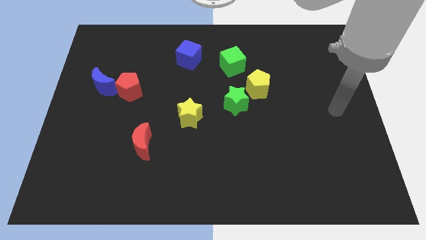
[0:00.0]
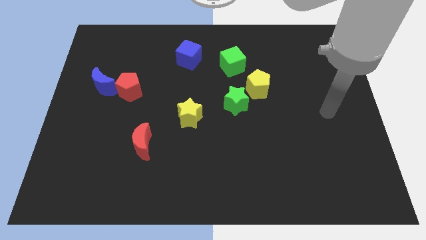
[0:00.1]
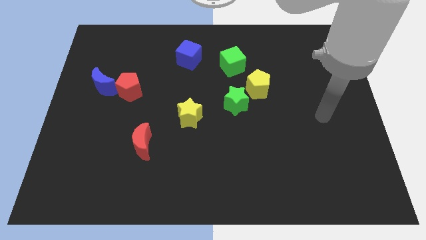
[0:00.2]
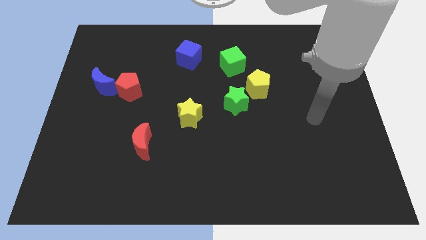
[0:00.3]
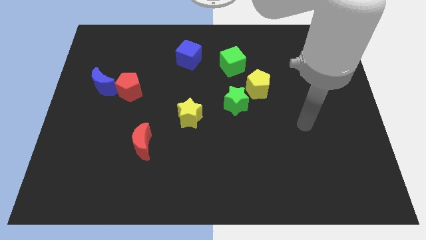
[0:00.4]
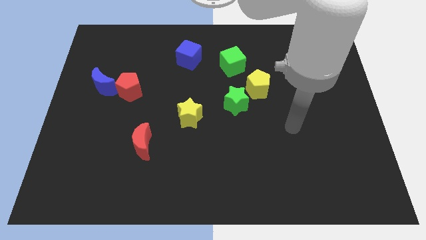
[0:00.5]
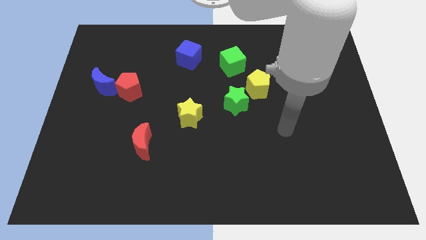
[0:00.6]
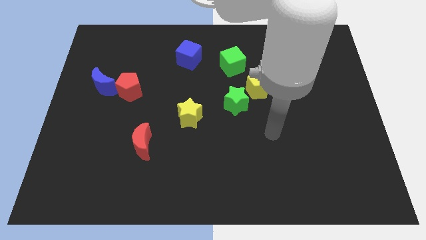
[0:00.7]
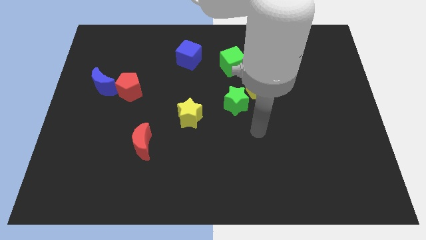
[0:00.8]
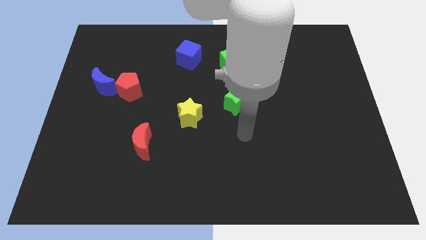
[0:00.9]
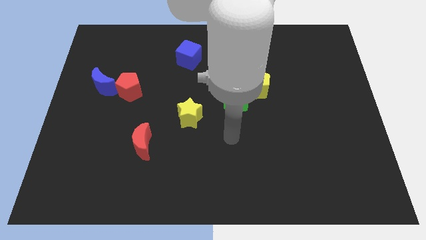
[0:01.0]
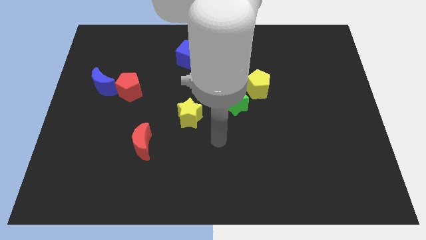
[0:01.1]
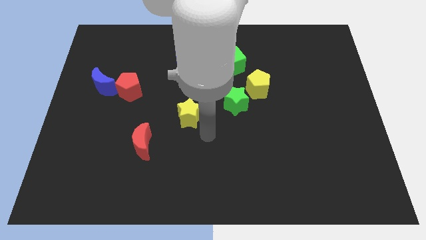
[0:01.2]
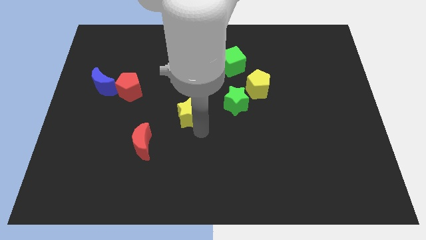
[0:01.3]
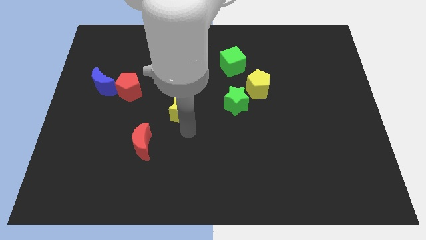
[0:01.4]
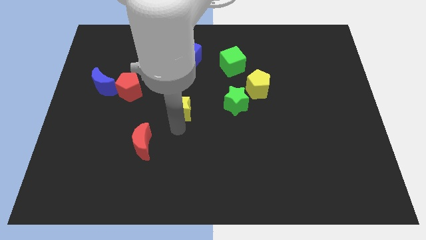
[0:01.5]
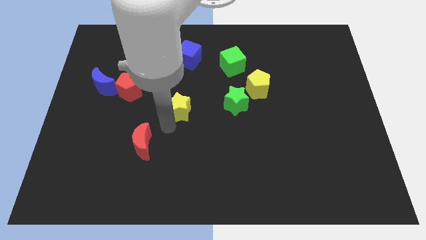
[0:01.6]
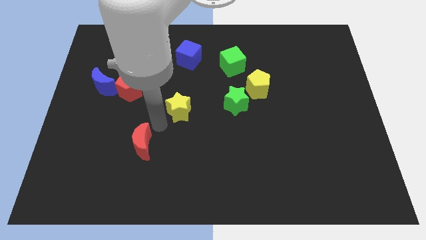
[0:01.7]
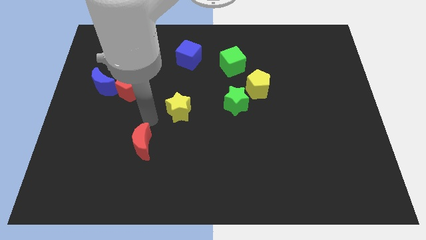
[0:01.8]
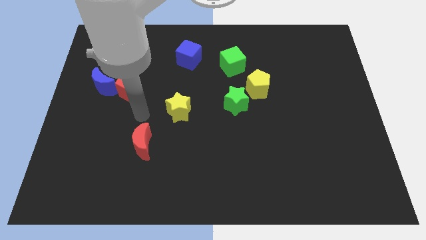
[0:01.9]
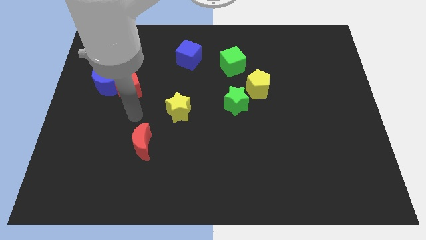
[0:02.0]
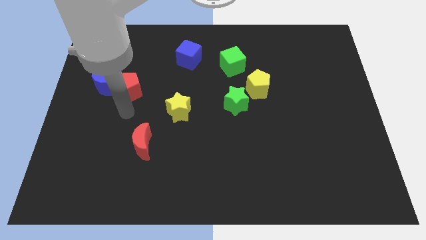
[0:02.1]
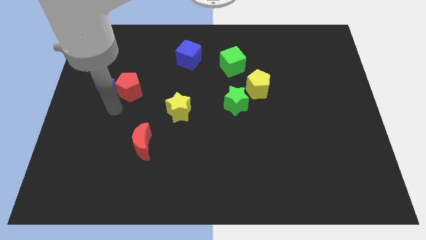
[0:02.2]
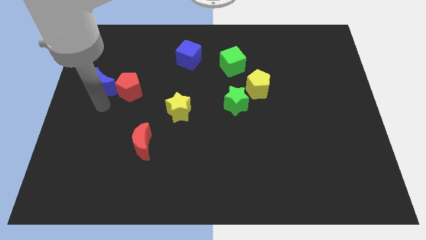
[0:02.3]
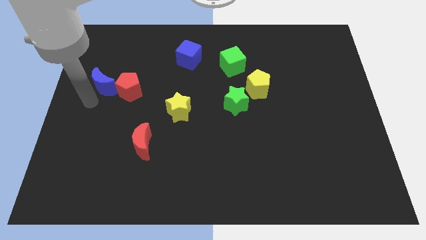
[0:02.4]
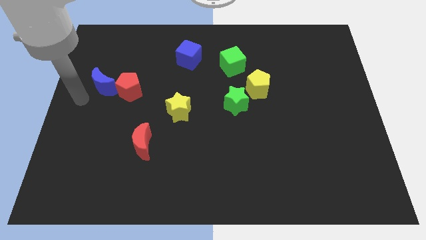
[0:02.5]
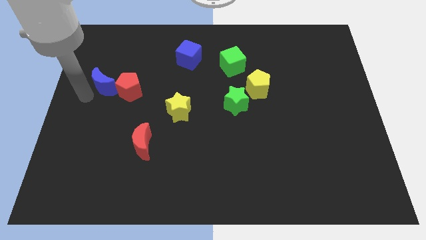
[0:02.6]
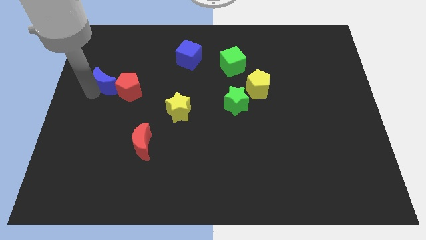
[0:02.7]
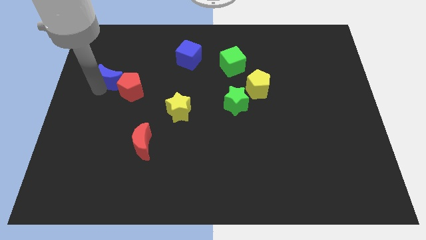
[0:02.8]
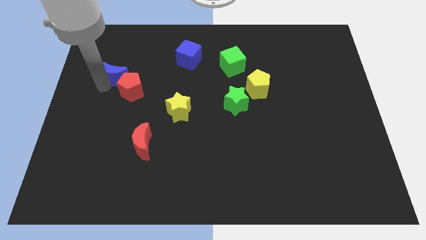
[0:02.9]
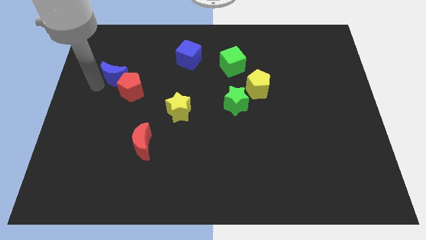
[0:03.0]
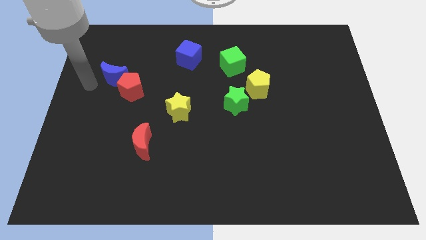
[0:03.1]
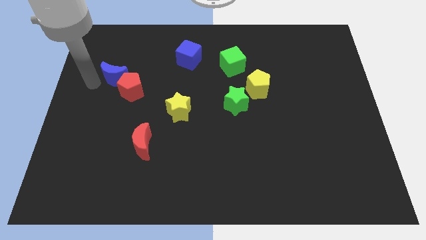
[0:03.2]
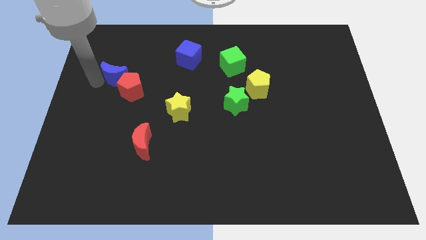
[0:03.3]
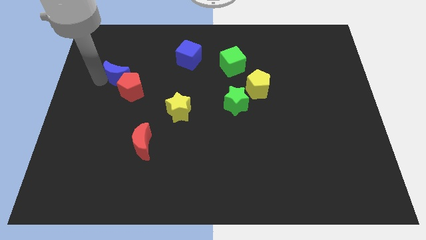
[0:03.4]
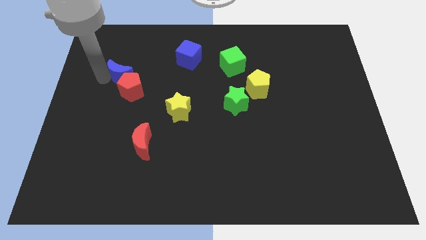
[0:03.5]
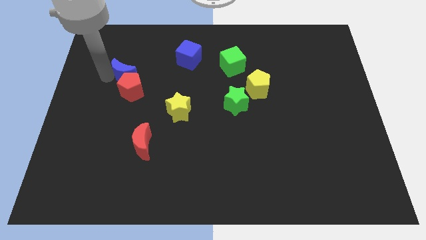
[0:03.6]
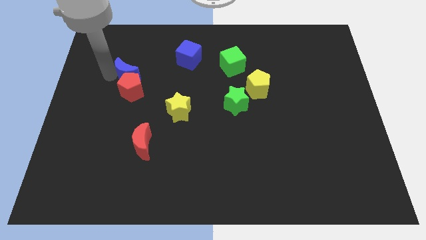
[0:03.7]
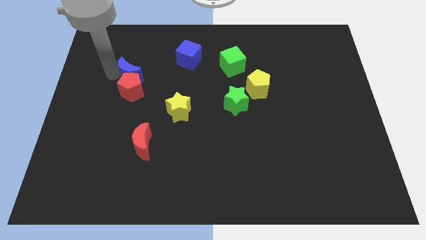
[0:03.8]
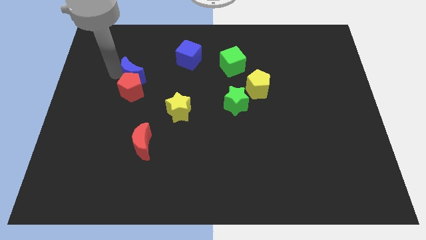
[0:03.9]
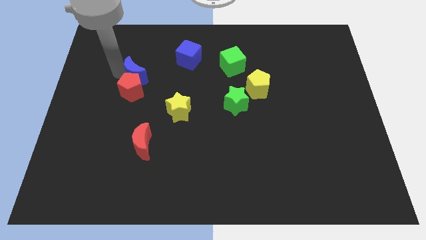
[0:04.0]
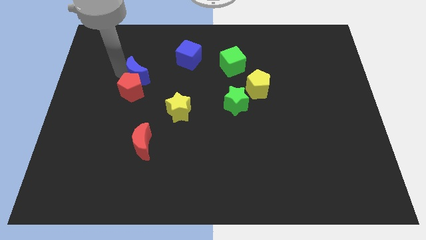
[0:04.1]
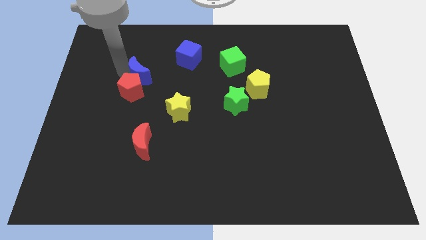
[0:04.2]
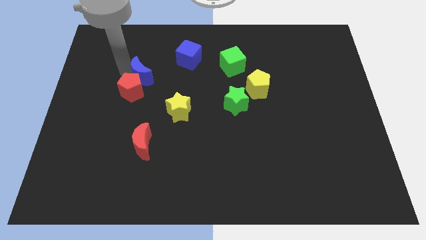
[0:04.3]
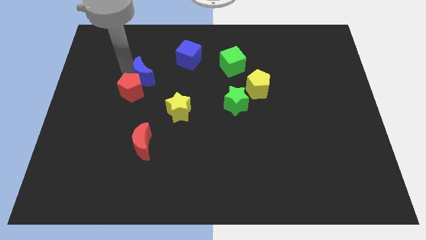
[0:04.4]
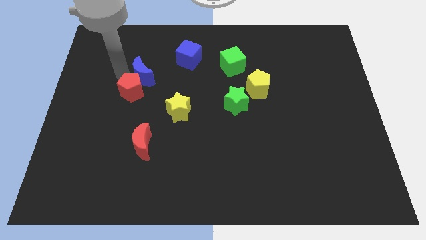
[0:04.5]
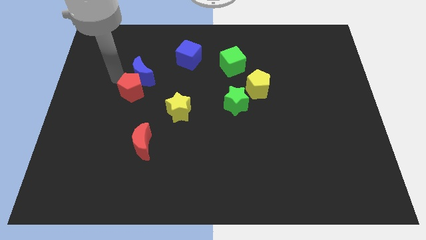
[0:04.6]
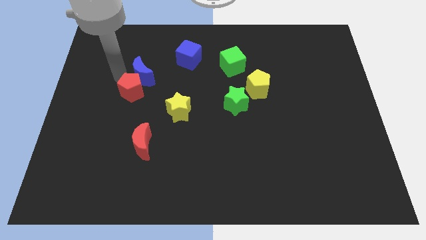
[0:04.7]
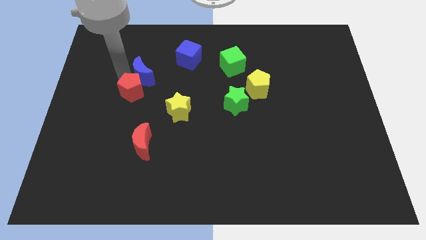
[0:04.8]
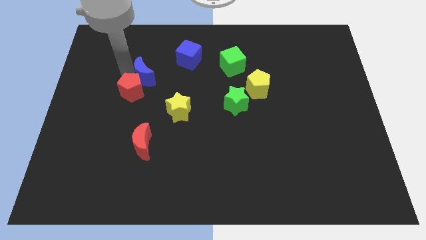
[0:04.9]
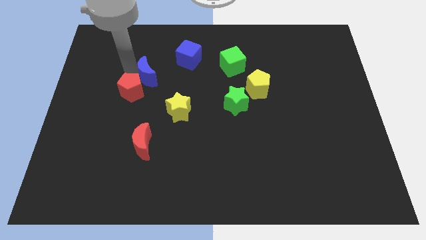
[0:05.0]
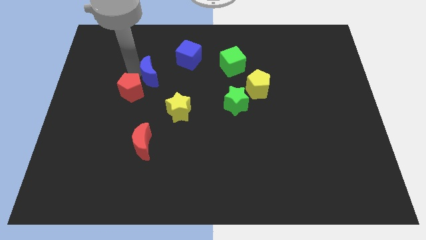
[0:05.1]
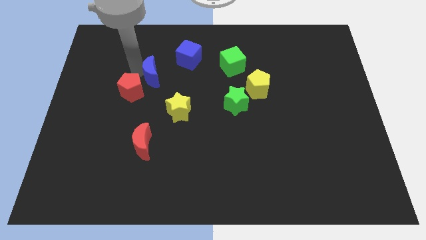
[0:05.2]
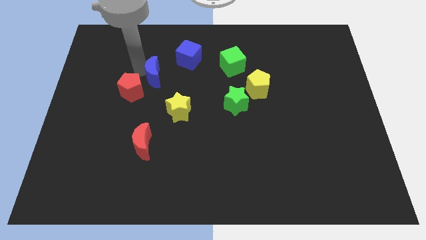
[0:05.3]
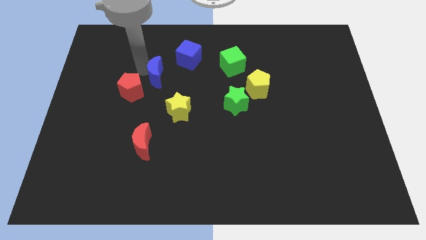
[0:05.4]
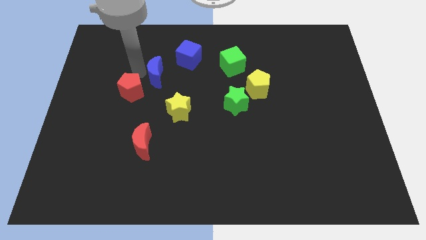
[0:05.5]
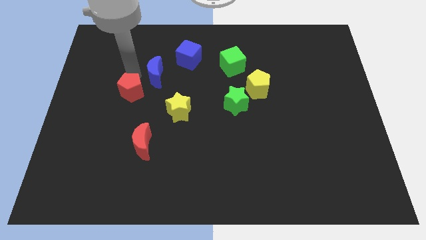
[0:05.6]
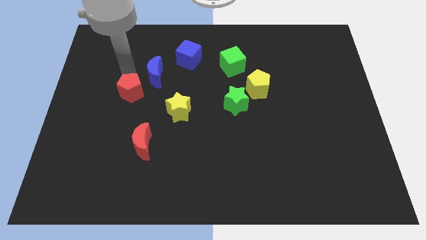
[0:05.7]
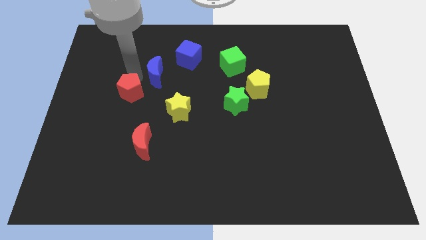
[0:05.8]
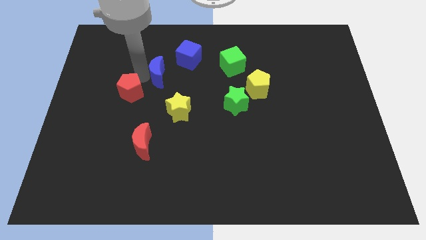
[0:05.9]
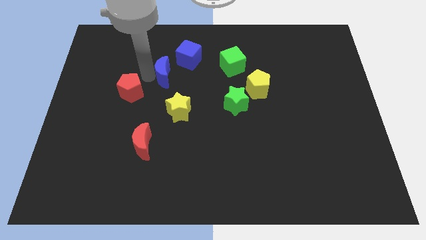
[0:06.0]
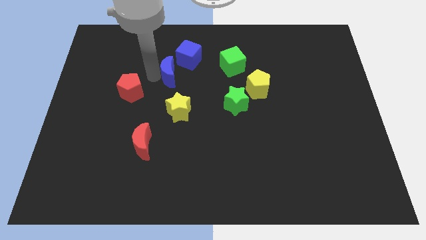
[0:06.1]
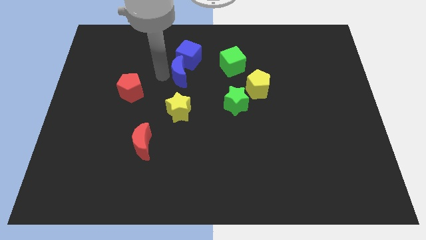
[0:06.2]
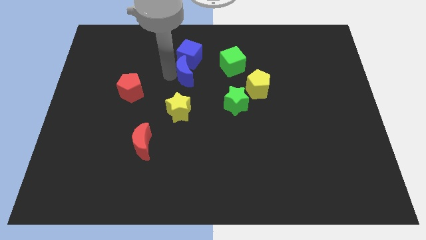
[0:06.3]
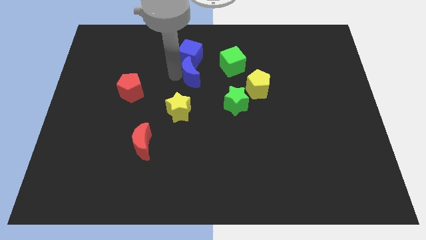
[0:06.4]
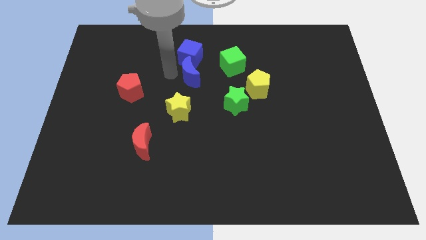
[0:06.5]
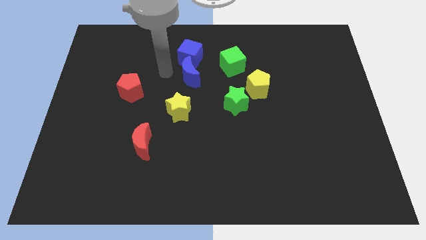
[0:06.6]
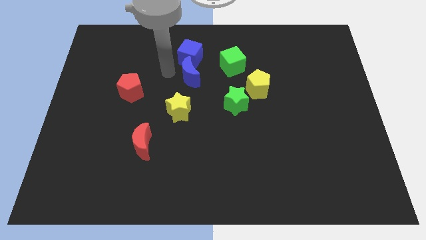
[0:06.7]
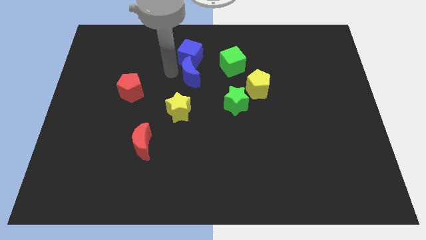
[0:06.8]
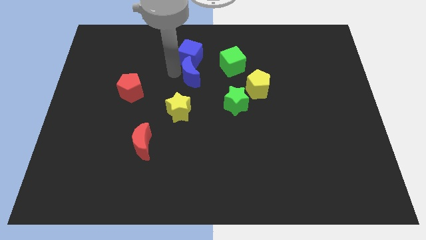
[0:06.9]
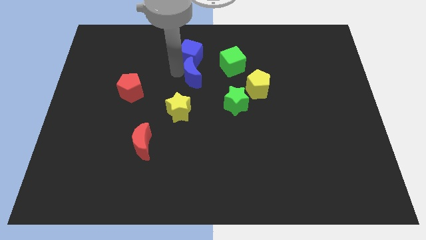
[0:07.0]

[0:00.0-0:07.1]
slide the blue moon to the bottom left of the green cube

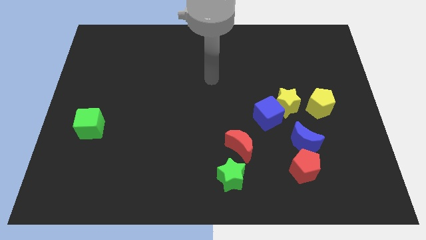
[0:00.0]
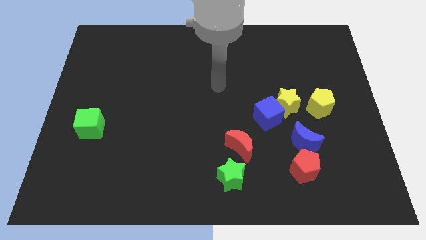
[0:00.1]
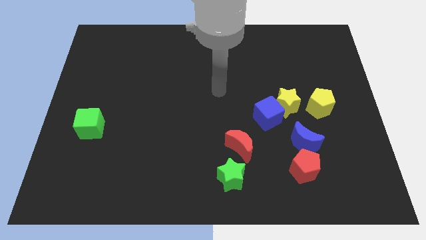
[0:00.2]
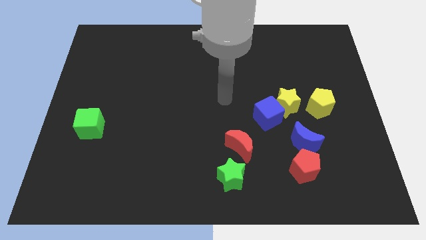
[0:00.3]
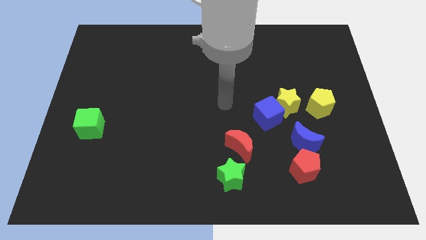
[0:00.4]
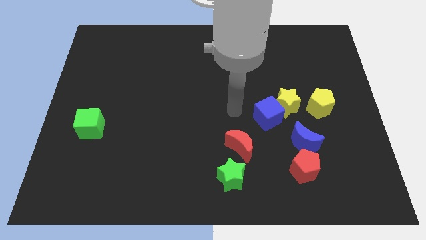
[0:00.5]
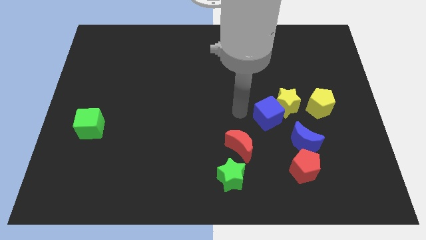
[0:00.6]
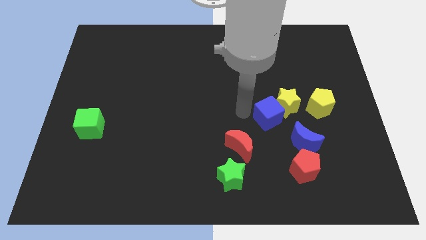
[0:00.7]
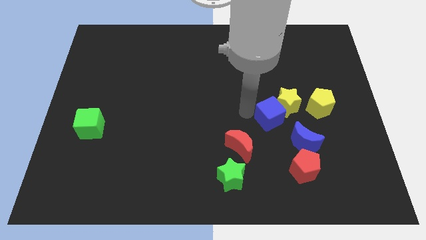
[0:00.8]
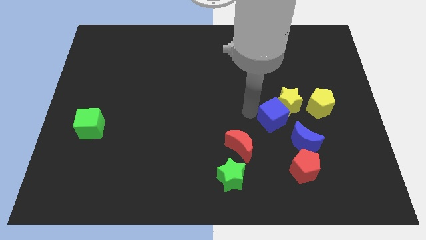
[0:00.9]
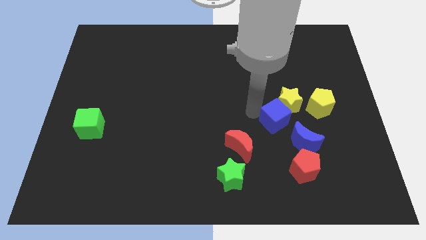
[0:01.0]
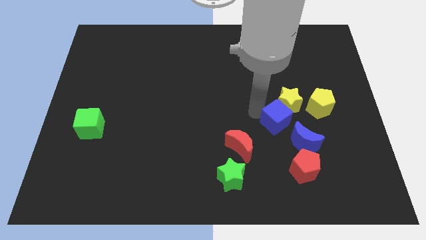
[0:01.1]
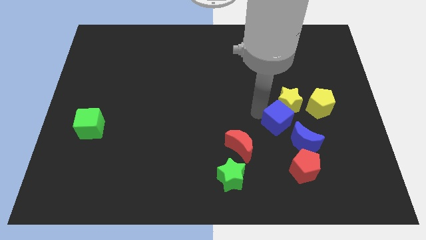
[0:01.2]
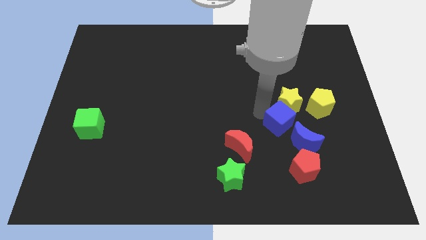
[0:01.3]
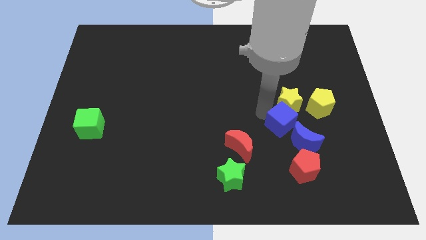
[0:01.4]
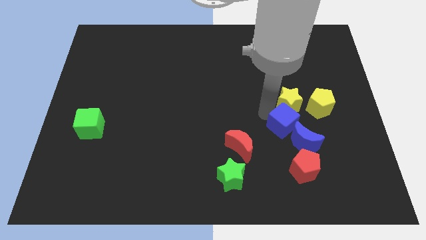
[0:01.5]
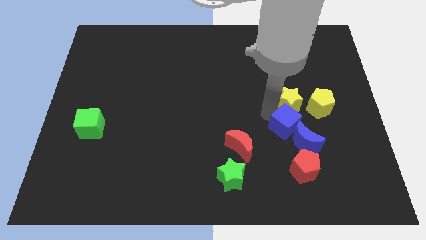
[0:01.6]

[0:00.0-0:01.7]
move the blue cube diagonally down and to the right of the yellow star
